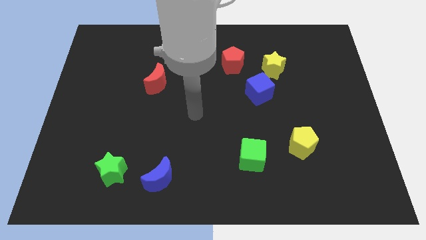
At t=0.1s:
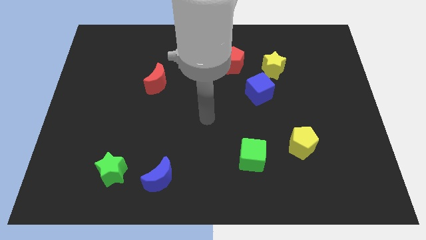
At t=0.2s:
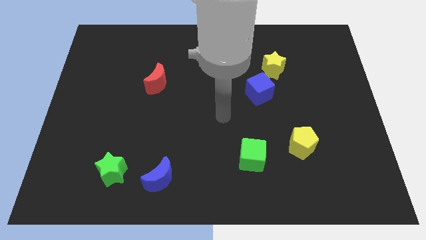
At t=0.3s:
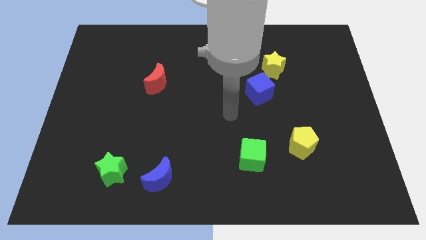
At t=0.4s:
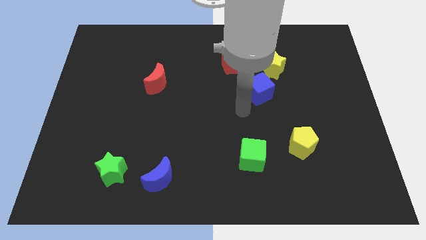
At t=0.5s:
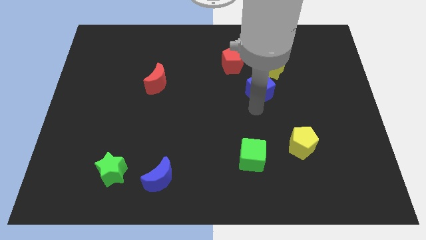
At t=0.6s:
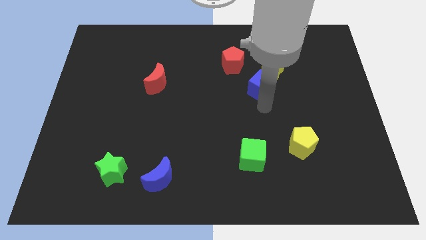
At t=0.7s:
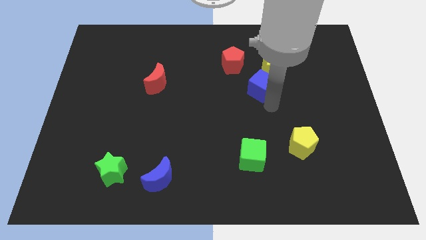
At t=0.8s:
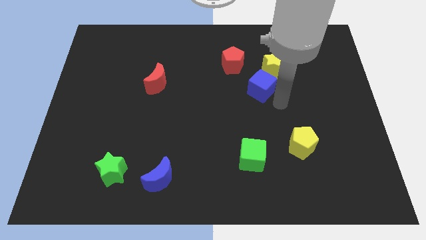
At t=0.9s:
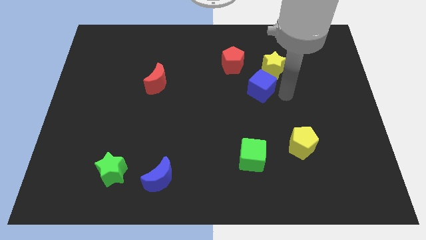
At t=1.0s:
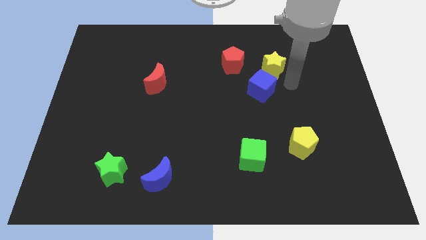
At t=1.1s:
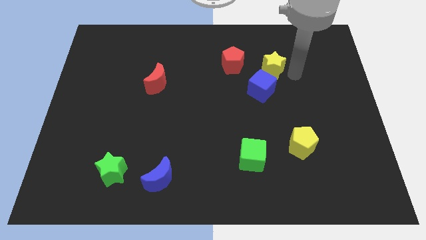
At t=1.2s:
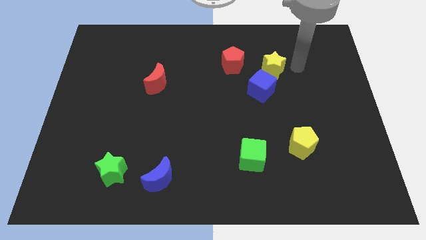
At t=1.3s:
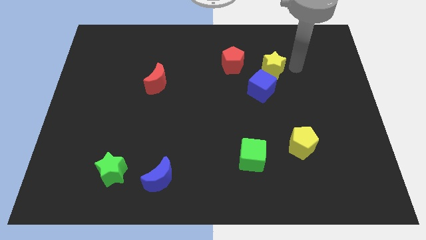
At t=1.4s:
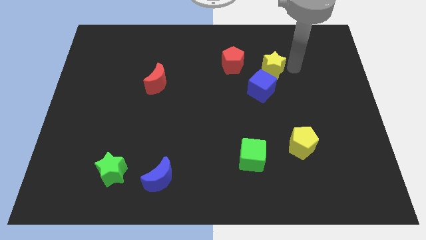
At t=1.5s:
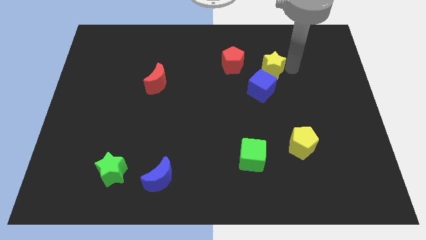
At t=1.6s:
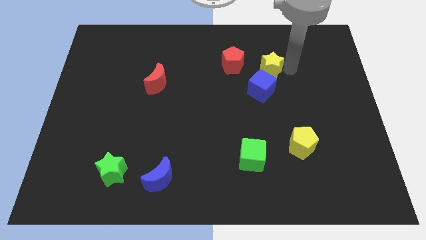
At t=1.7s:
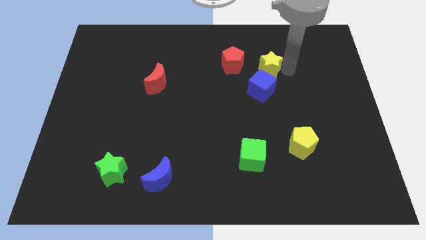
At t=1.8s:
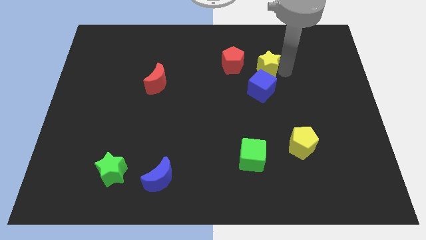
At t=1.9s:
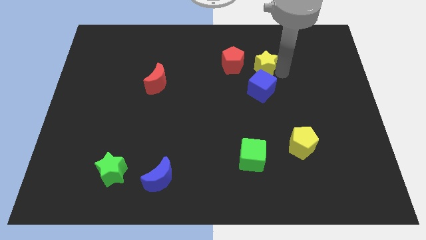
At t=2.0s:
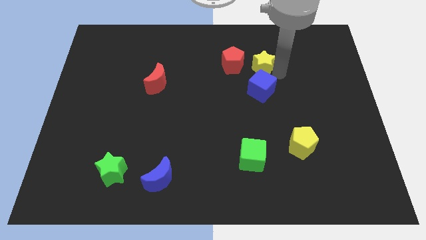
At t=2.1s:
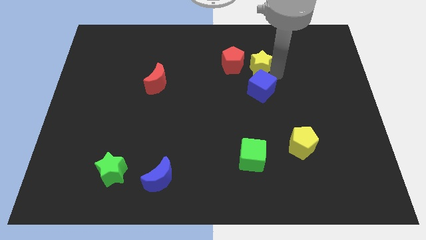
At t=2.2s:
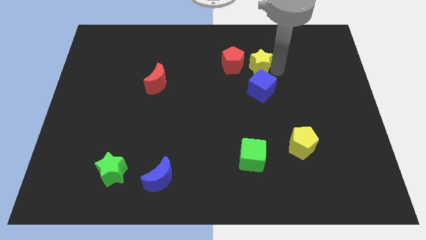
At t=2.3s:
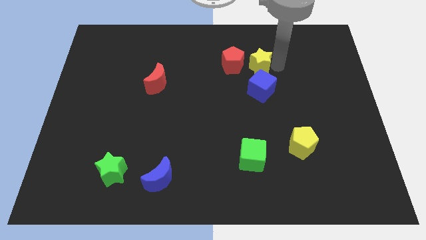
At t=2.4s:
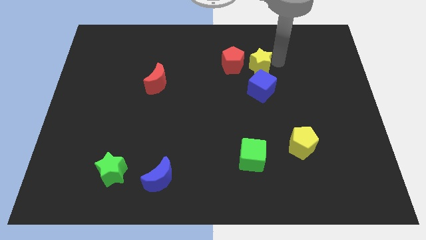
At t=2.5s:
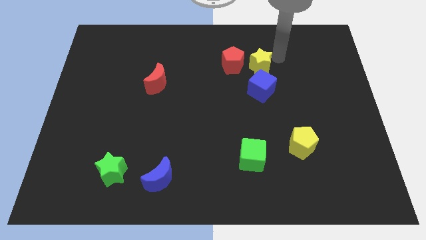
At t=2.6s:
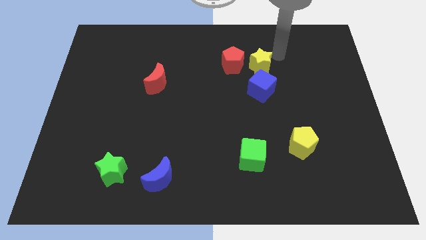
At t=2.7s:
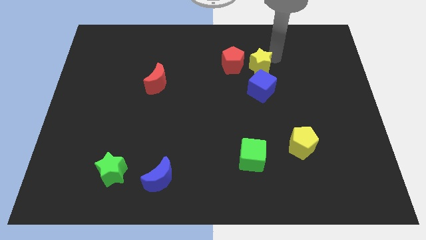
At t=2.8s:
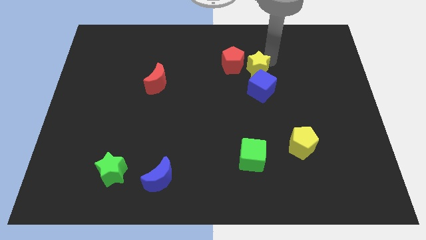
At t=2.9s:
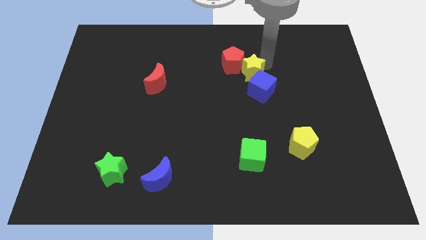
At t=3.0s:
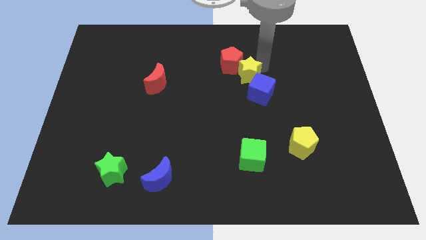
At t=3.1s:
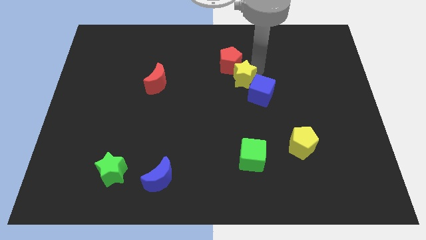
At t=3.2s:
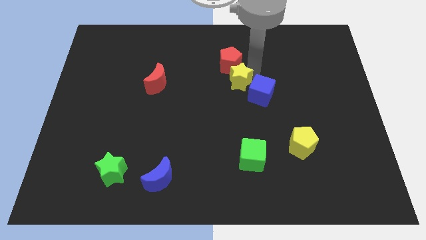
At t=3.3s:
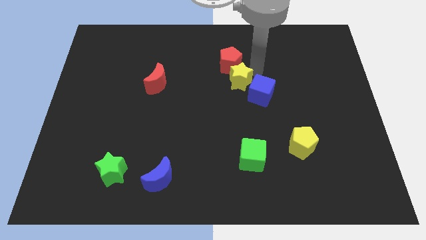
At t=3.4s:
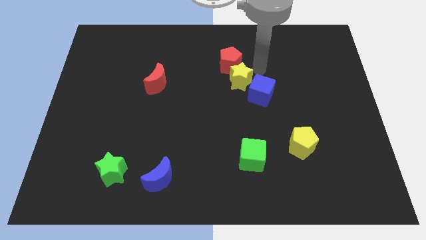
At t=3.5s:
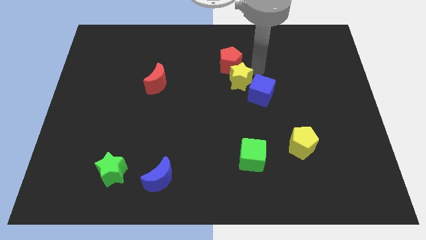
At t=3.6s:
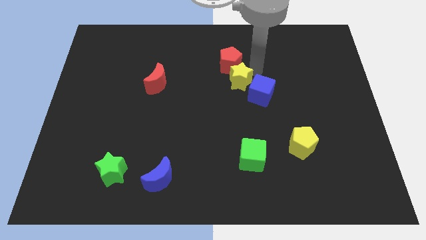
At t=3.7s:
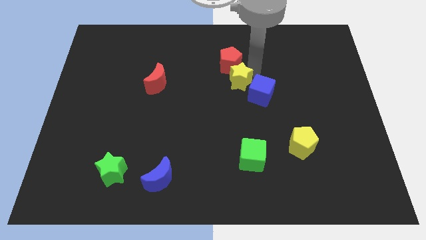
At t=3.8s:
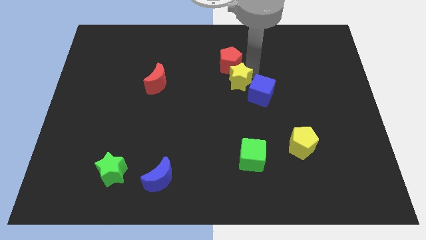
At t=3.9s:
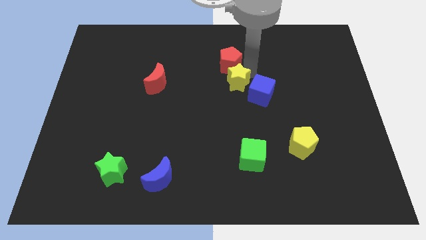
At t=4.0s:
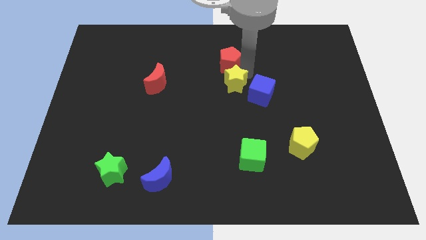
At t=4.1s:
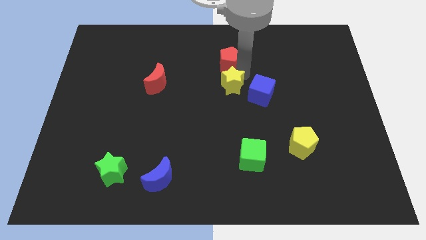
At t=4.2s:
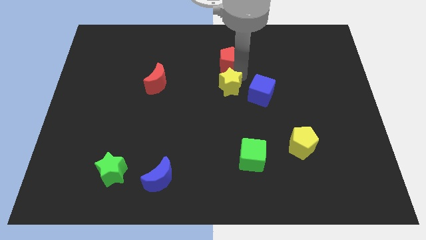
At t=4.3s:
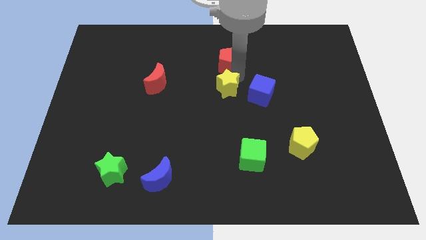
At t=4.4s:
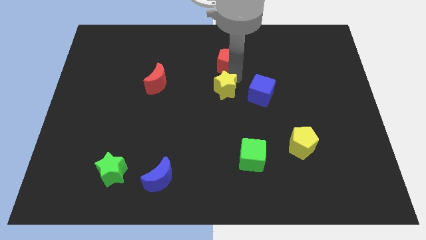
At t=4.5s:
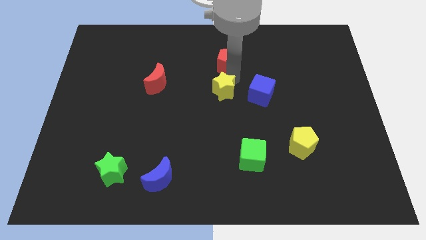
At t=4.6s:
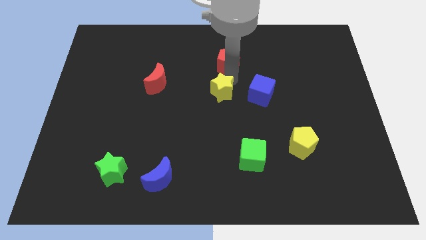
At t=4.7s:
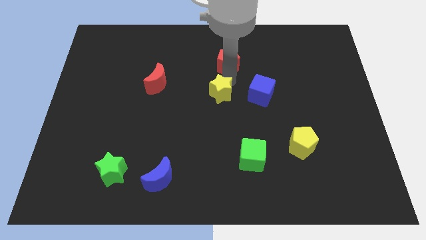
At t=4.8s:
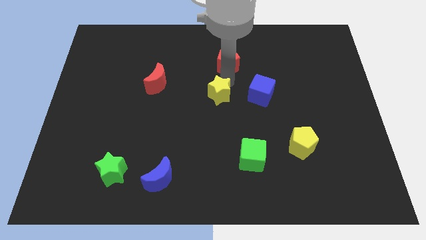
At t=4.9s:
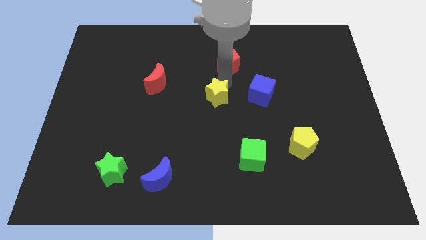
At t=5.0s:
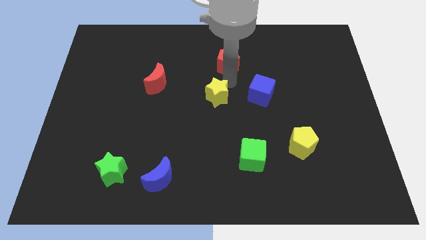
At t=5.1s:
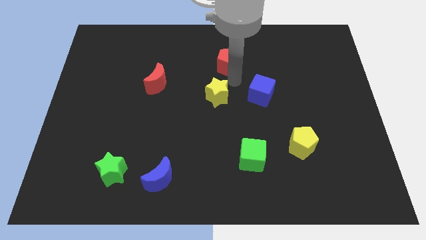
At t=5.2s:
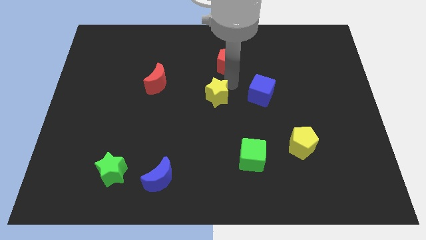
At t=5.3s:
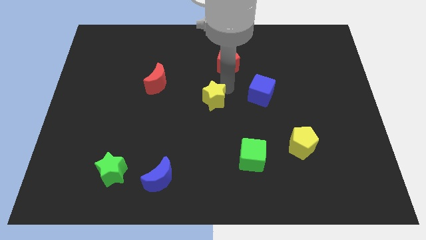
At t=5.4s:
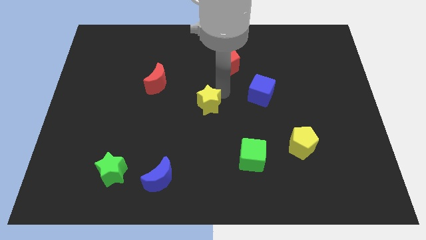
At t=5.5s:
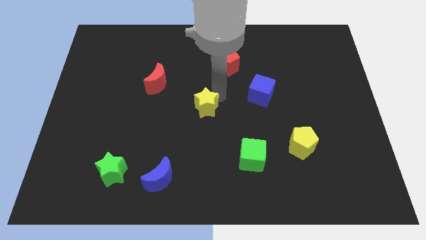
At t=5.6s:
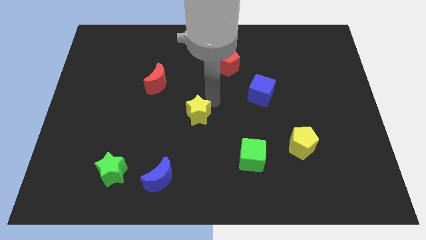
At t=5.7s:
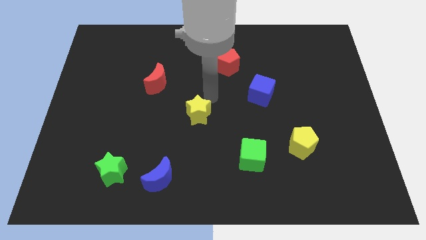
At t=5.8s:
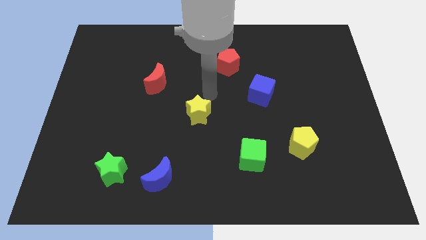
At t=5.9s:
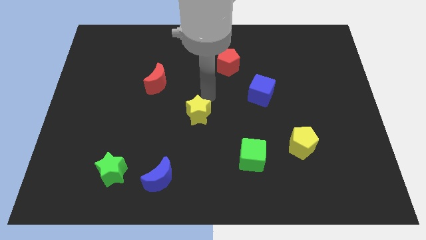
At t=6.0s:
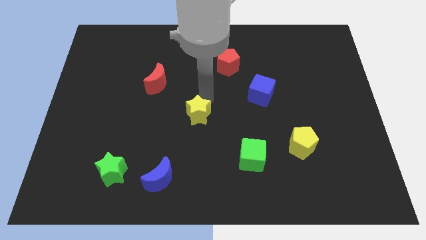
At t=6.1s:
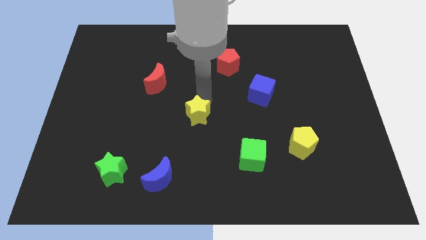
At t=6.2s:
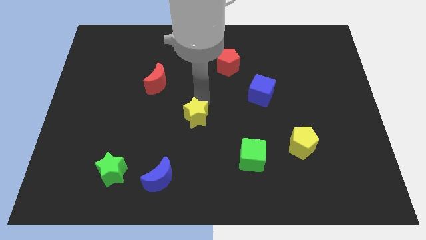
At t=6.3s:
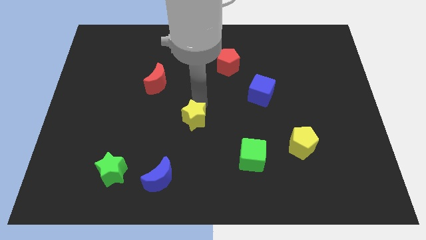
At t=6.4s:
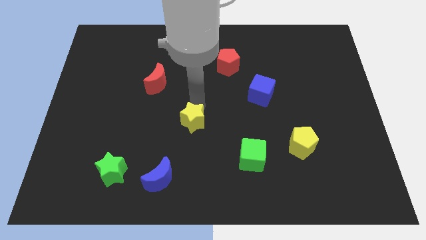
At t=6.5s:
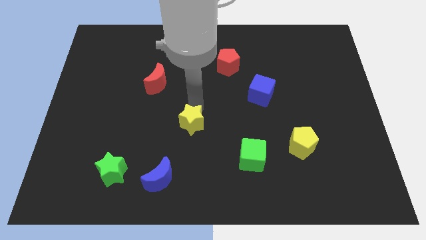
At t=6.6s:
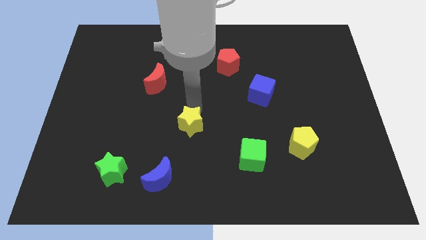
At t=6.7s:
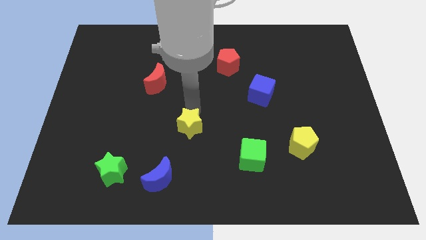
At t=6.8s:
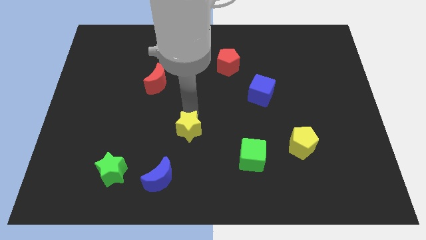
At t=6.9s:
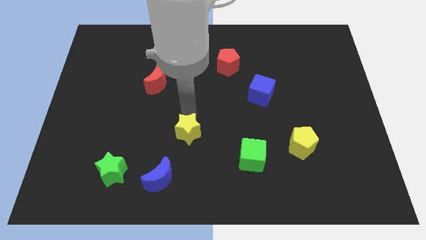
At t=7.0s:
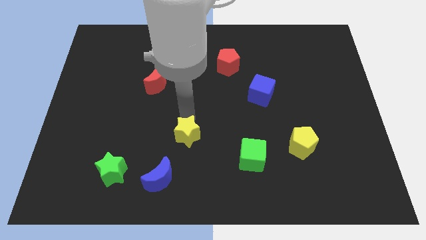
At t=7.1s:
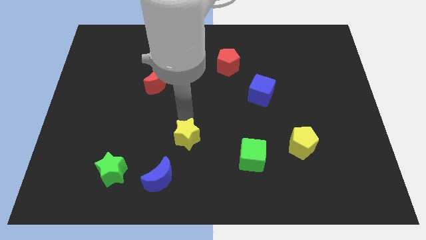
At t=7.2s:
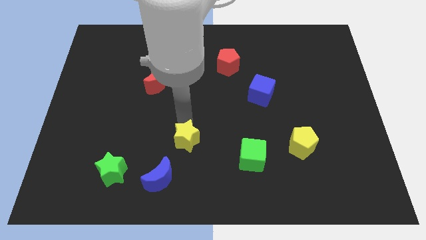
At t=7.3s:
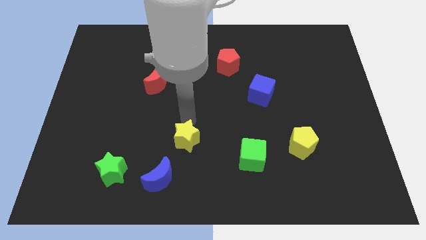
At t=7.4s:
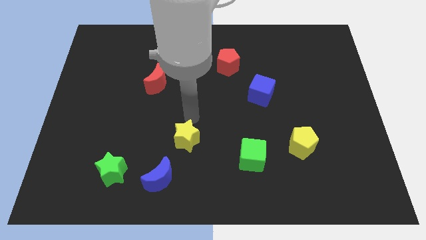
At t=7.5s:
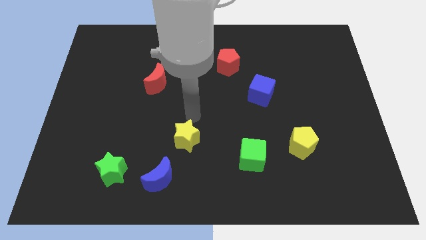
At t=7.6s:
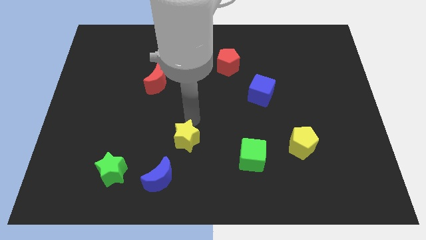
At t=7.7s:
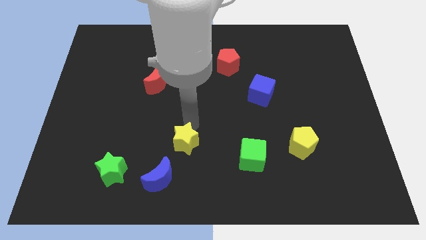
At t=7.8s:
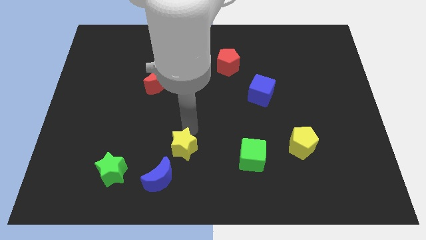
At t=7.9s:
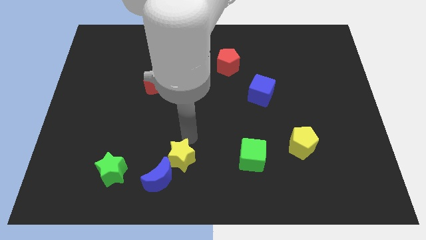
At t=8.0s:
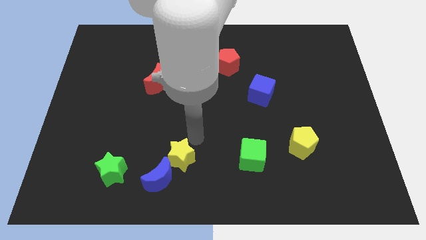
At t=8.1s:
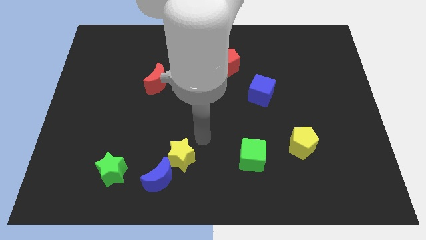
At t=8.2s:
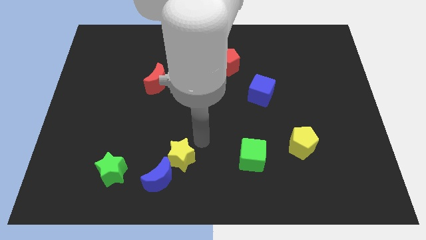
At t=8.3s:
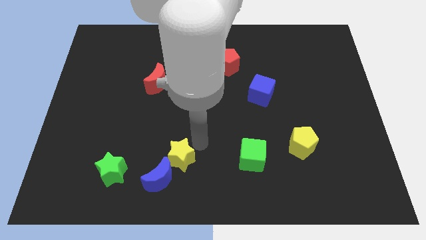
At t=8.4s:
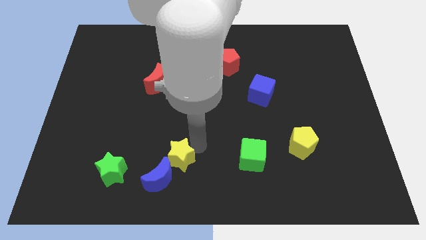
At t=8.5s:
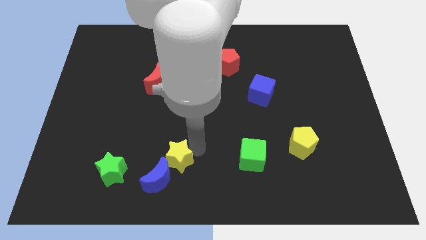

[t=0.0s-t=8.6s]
slide the yellow star close to the blue moon
